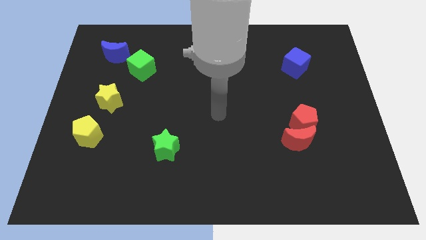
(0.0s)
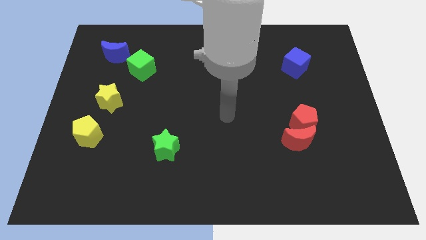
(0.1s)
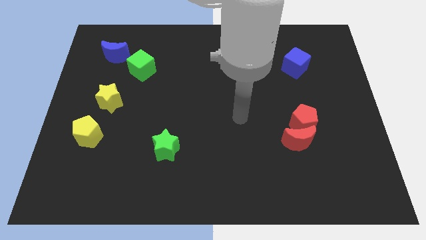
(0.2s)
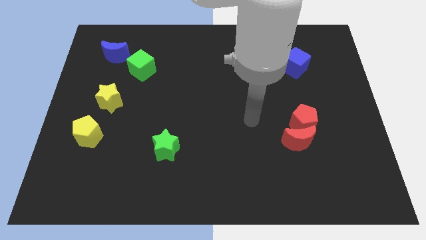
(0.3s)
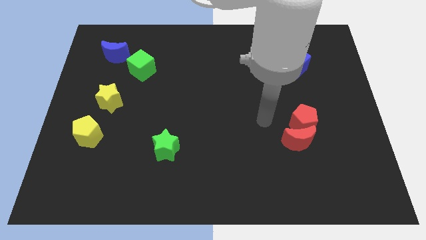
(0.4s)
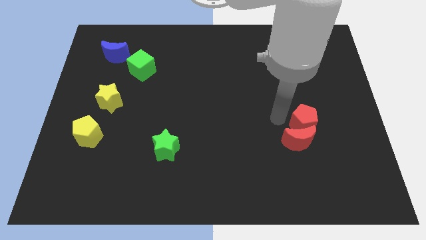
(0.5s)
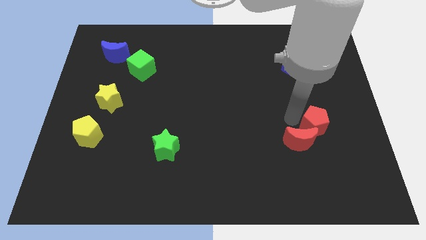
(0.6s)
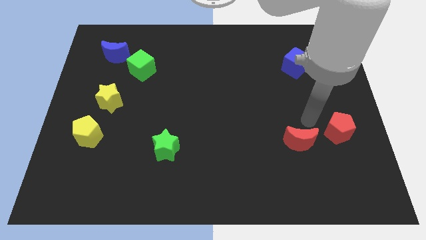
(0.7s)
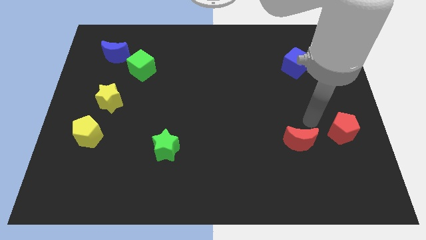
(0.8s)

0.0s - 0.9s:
separate the red moon from the red pentagon

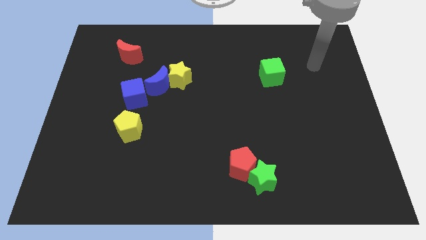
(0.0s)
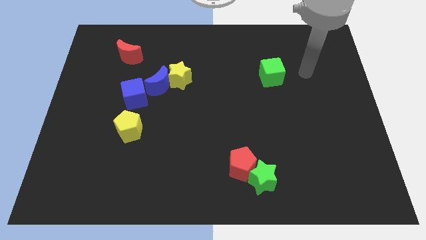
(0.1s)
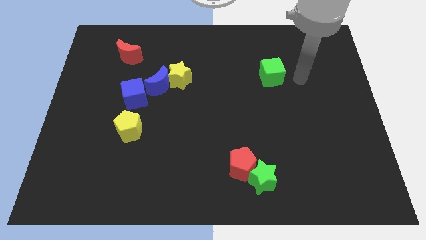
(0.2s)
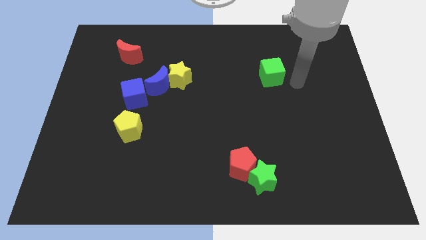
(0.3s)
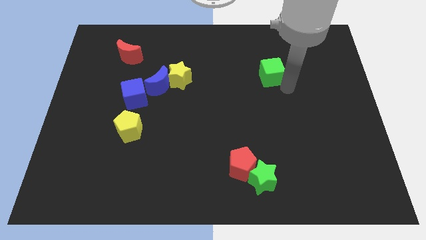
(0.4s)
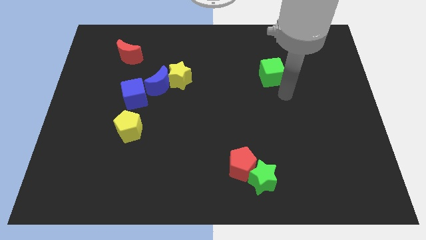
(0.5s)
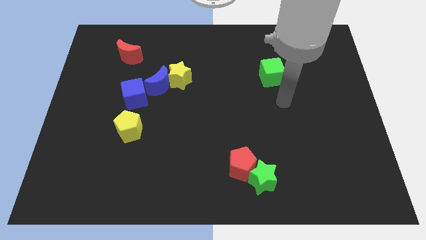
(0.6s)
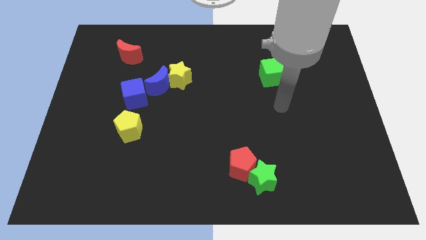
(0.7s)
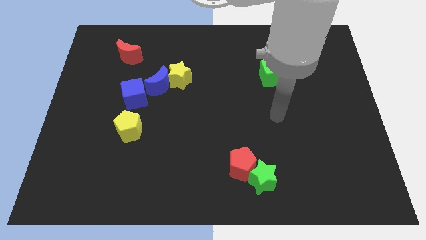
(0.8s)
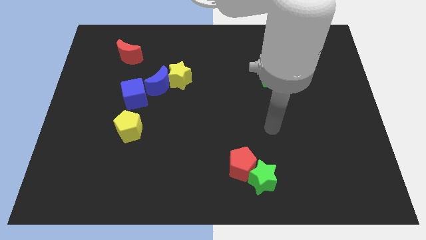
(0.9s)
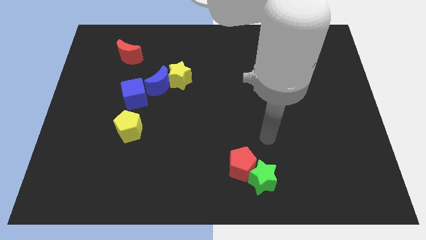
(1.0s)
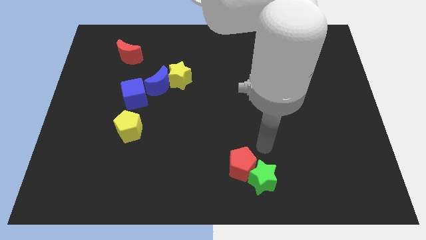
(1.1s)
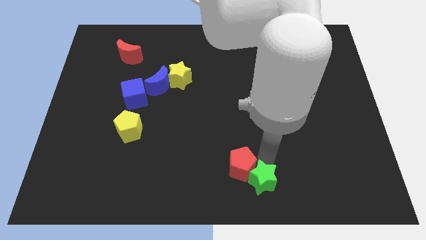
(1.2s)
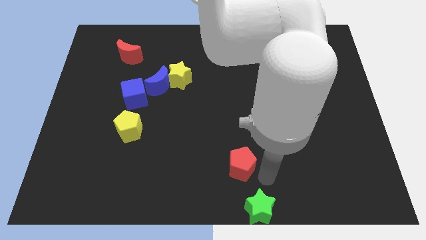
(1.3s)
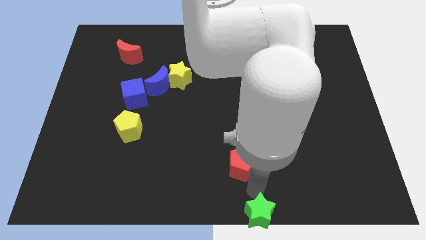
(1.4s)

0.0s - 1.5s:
pull the red pentagon apart from the green star

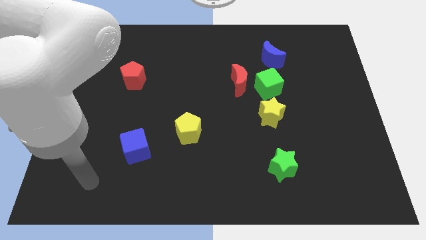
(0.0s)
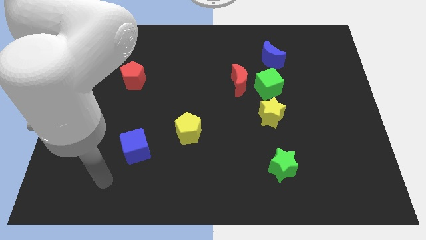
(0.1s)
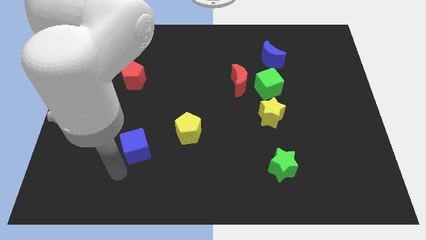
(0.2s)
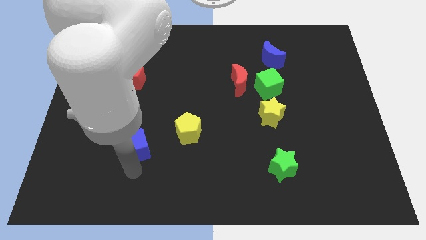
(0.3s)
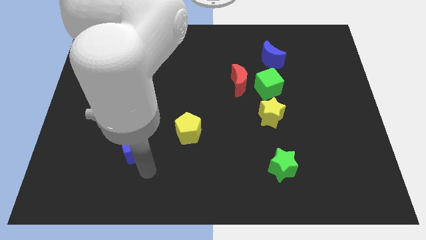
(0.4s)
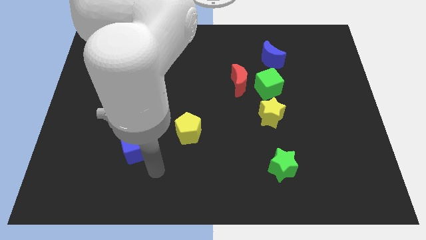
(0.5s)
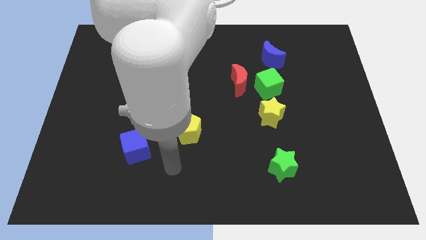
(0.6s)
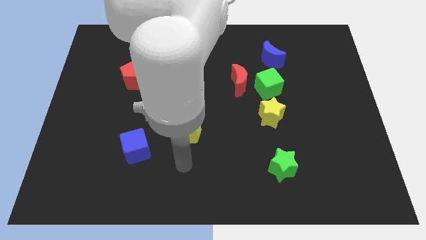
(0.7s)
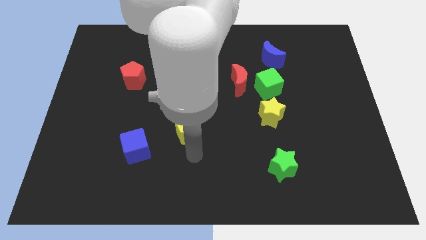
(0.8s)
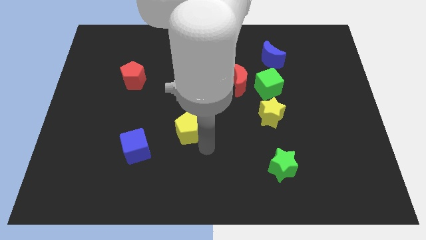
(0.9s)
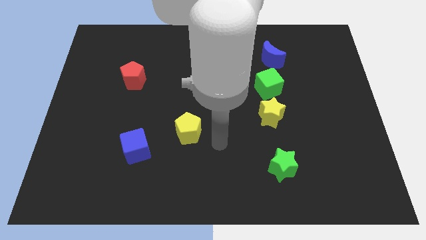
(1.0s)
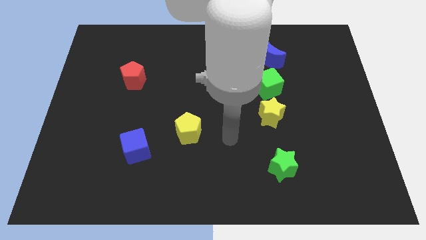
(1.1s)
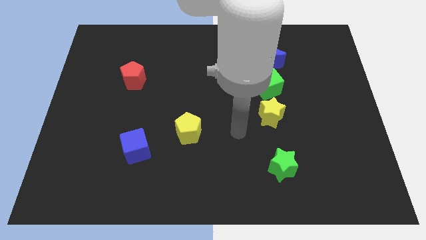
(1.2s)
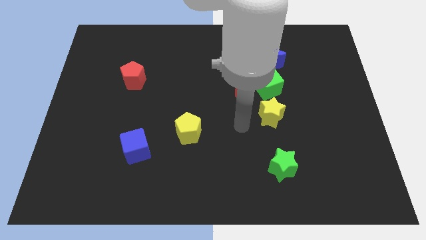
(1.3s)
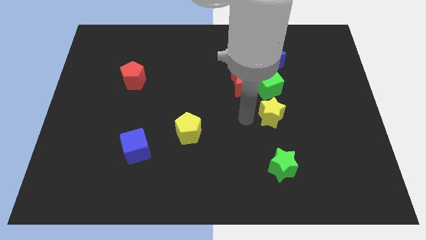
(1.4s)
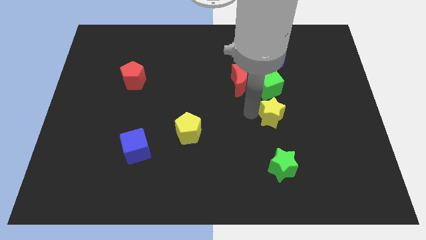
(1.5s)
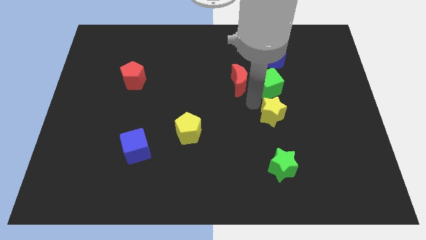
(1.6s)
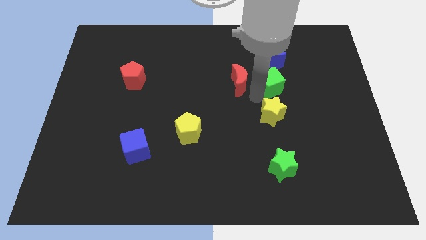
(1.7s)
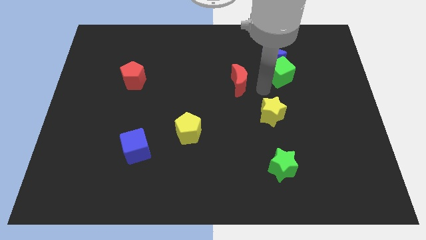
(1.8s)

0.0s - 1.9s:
pull the red moon apart from the green cube

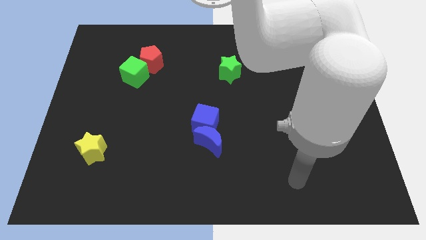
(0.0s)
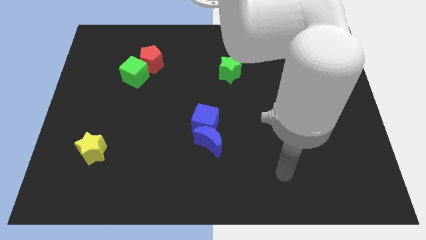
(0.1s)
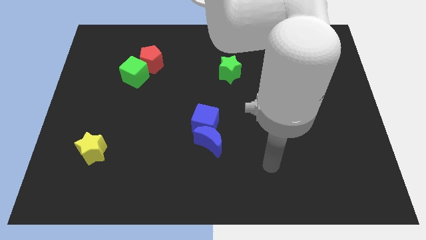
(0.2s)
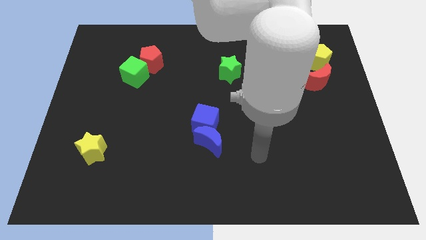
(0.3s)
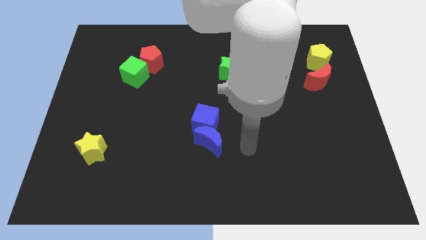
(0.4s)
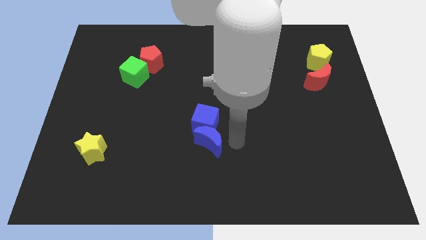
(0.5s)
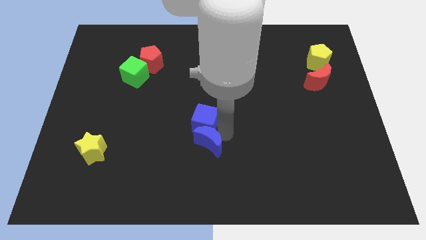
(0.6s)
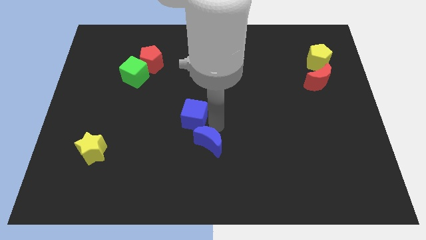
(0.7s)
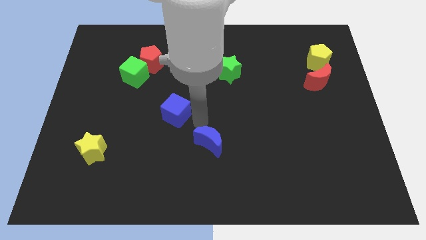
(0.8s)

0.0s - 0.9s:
separate the blue moon from the blue cube

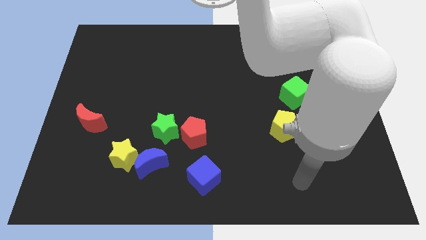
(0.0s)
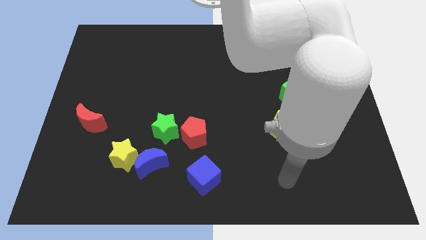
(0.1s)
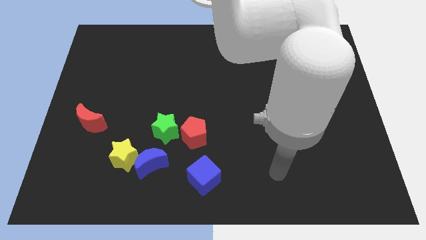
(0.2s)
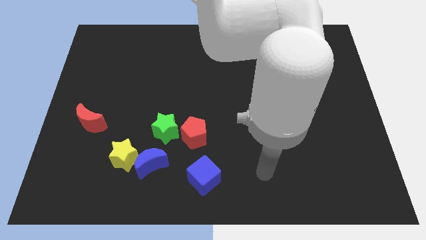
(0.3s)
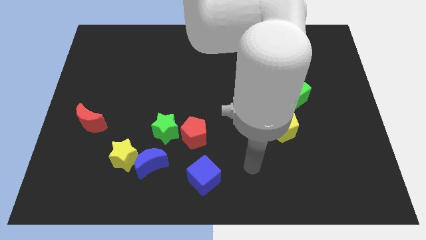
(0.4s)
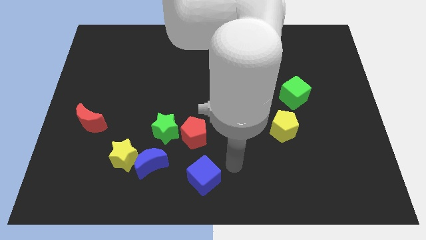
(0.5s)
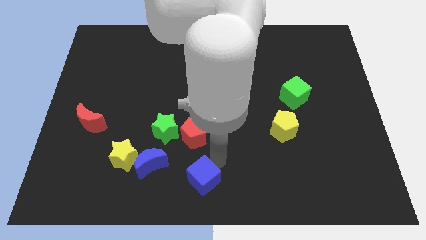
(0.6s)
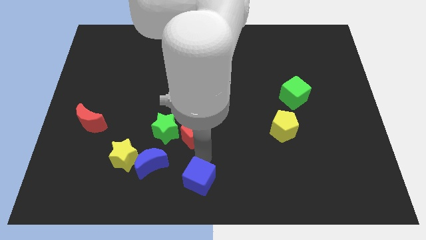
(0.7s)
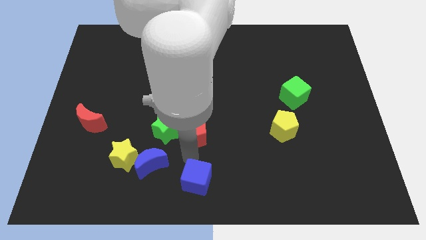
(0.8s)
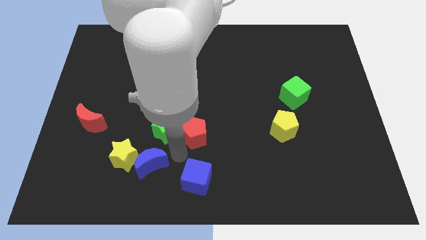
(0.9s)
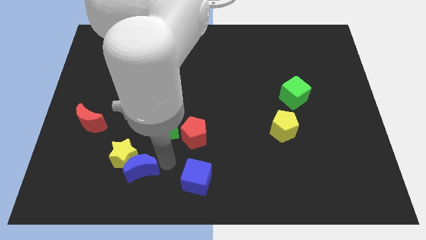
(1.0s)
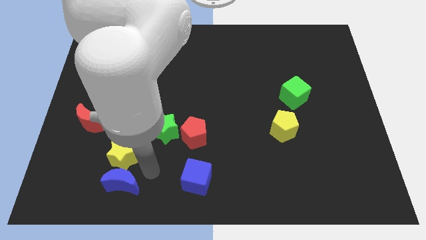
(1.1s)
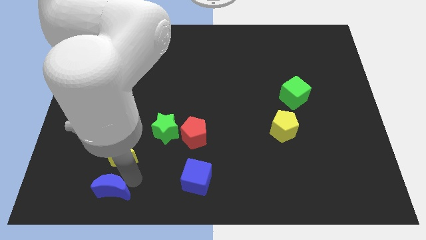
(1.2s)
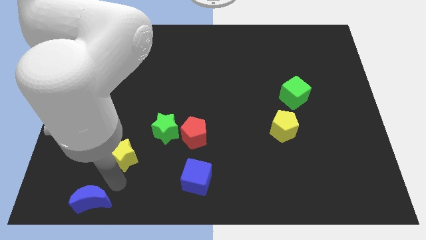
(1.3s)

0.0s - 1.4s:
separate the yellow star from the blue moon

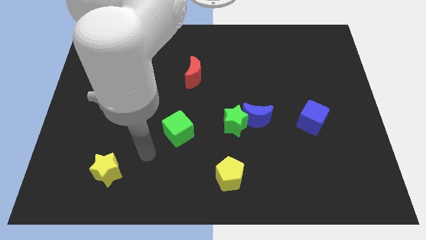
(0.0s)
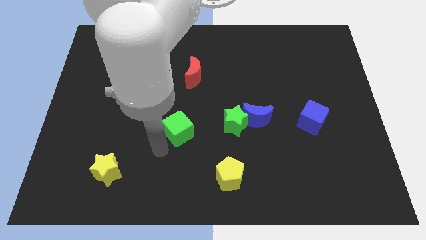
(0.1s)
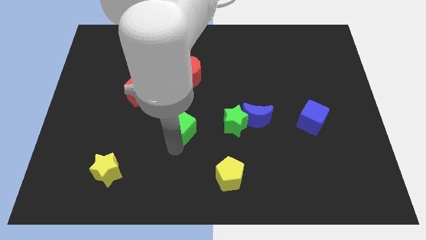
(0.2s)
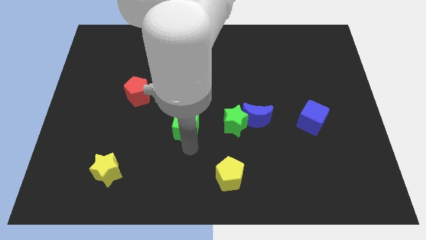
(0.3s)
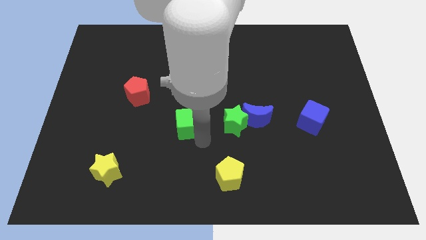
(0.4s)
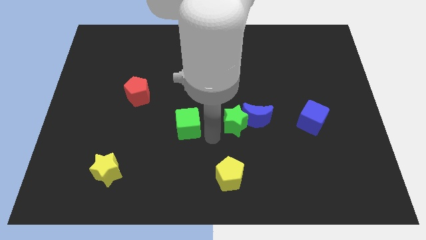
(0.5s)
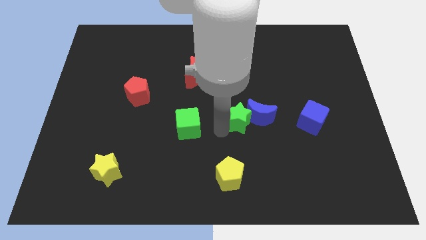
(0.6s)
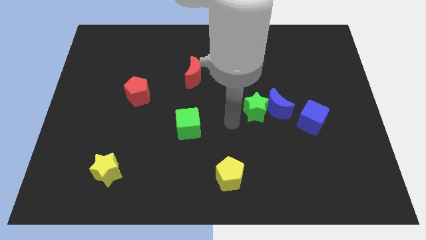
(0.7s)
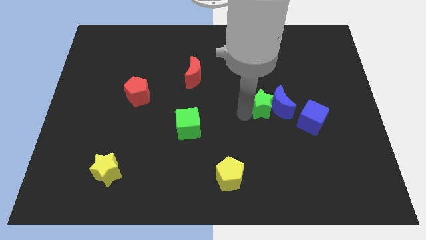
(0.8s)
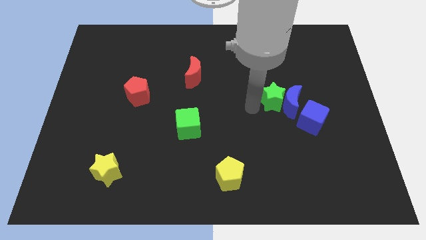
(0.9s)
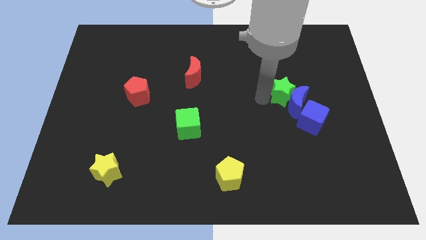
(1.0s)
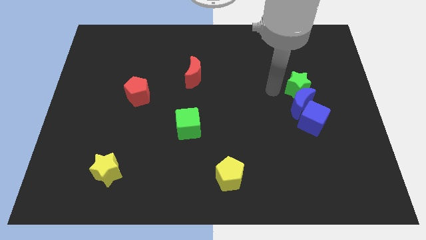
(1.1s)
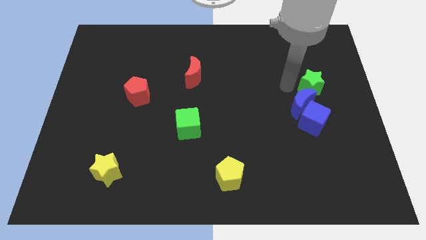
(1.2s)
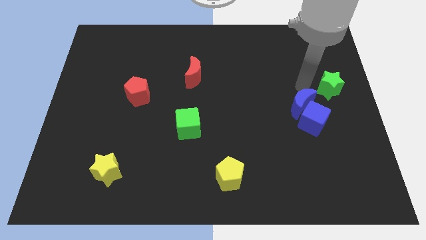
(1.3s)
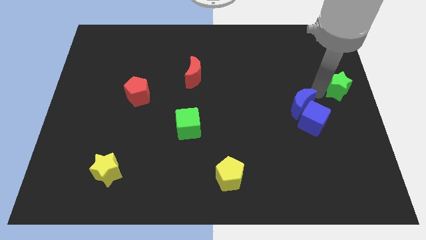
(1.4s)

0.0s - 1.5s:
pull the blue moon apart from the green star

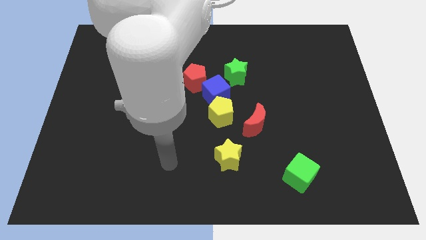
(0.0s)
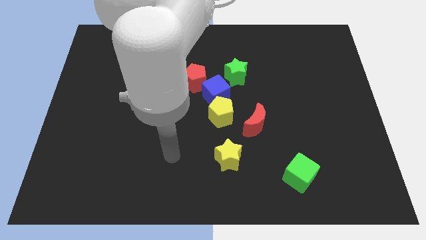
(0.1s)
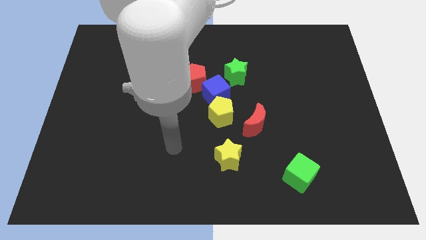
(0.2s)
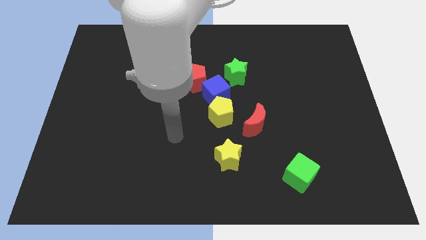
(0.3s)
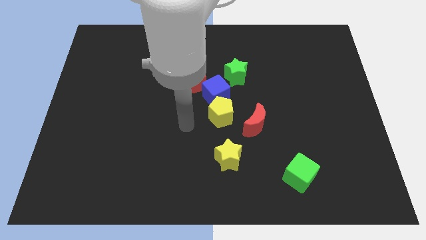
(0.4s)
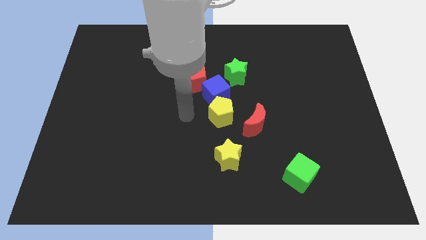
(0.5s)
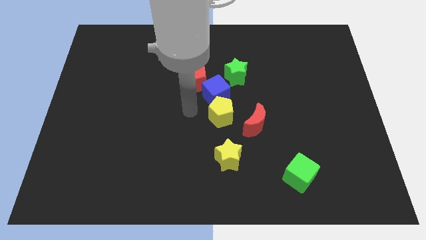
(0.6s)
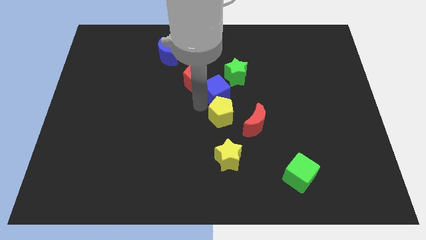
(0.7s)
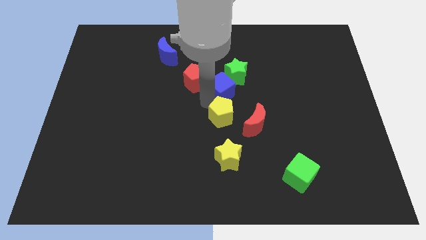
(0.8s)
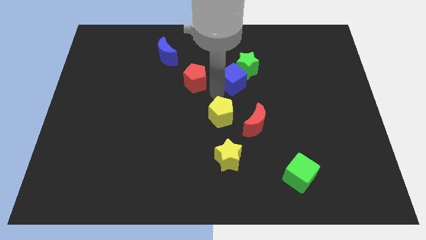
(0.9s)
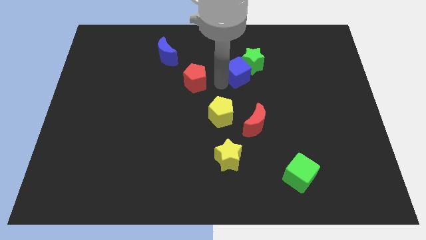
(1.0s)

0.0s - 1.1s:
separate the red pentagon from the blue cube
